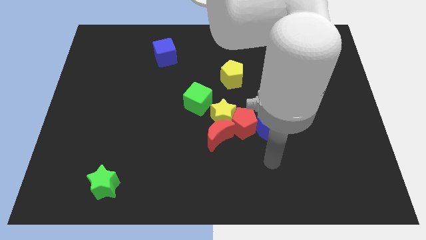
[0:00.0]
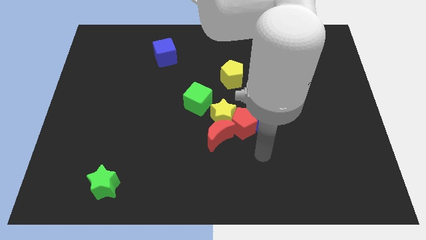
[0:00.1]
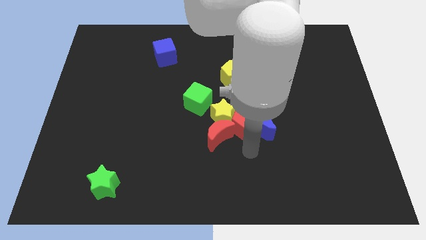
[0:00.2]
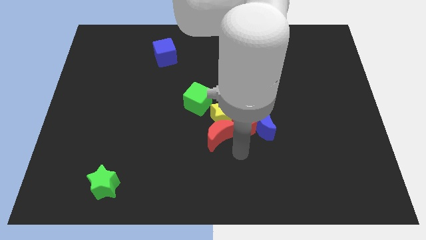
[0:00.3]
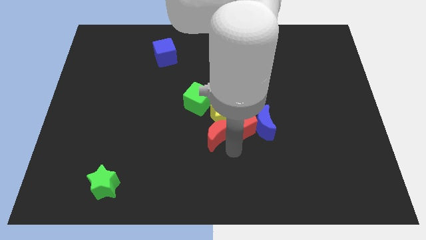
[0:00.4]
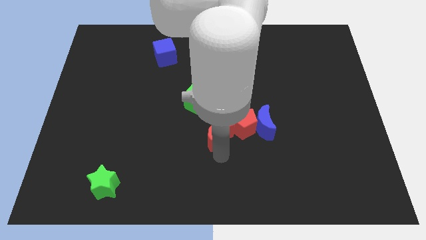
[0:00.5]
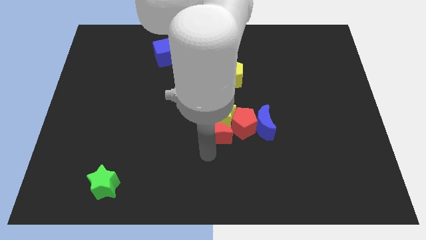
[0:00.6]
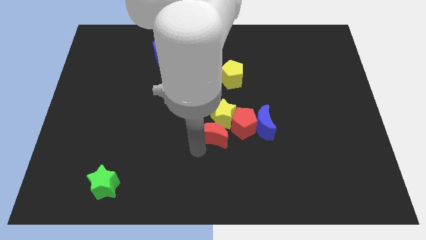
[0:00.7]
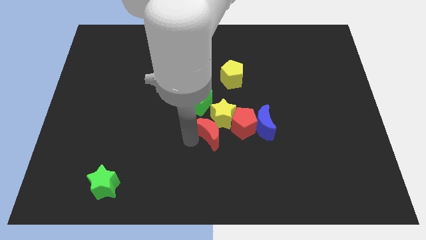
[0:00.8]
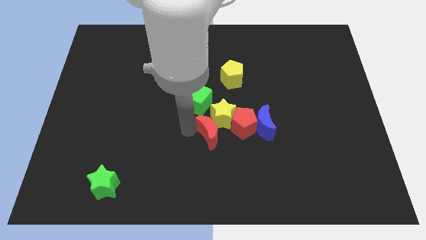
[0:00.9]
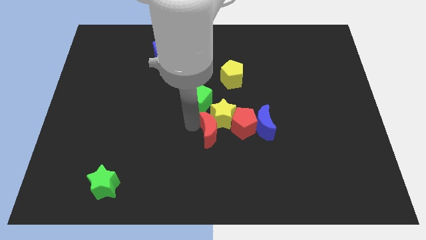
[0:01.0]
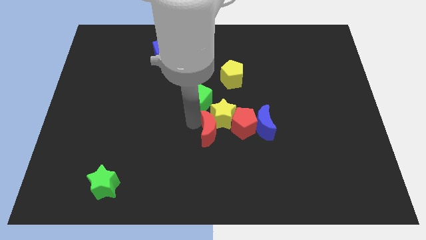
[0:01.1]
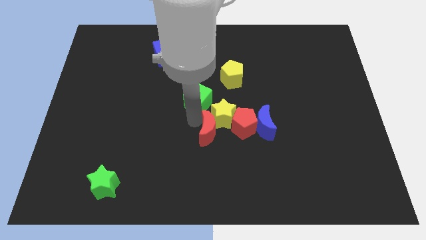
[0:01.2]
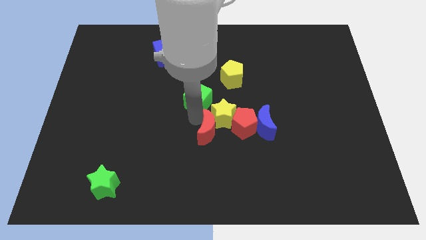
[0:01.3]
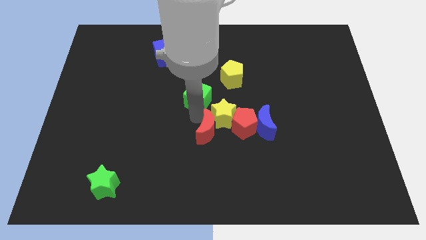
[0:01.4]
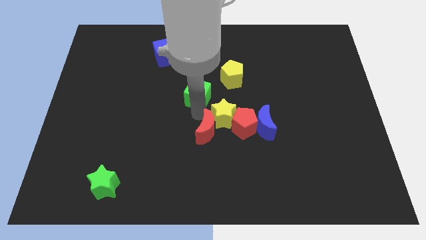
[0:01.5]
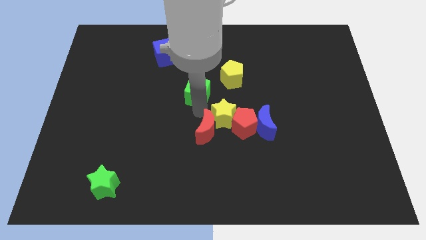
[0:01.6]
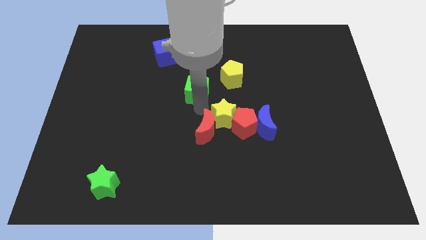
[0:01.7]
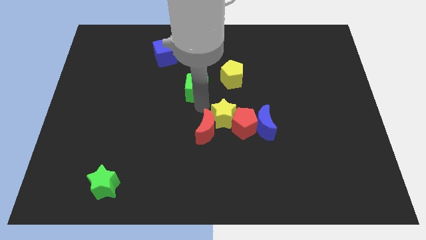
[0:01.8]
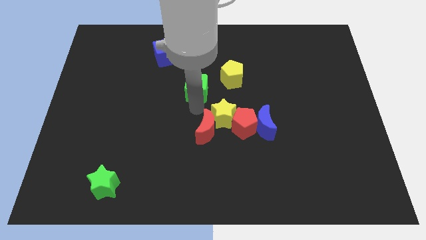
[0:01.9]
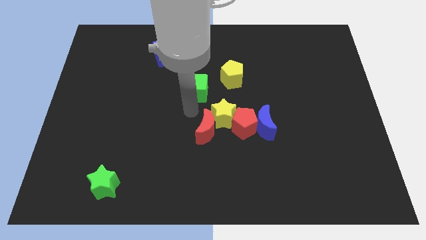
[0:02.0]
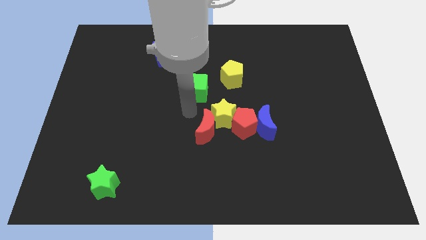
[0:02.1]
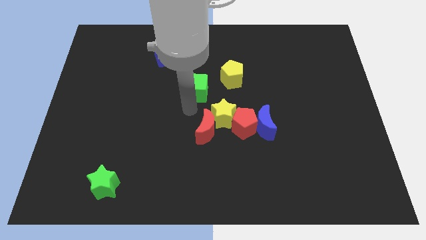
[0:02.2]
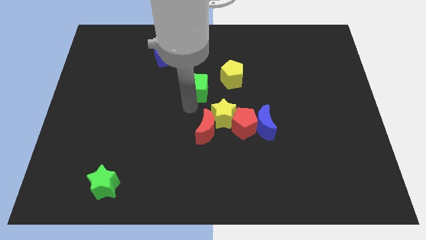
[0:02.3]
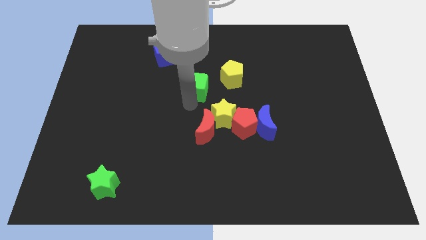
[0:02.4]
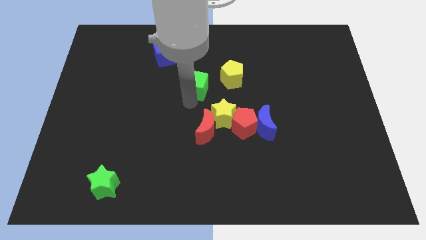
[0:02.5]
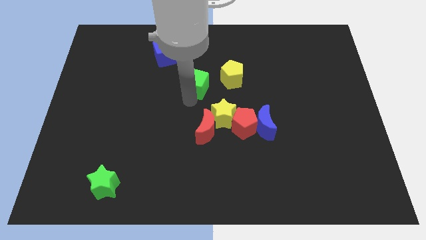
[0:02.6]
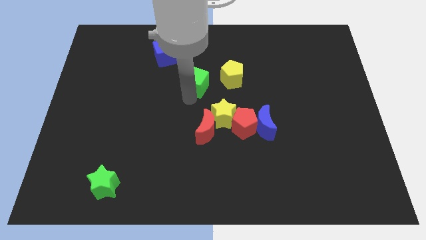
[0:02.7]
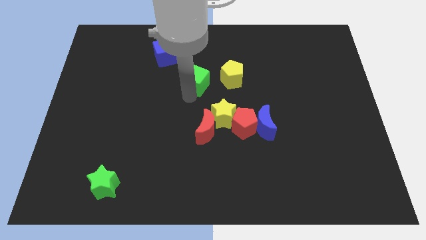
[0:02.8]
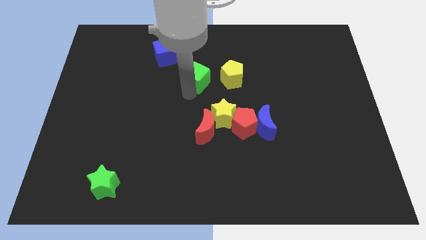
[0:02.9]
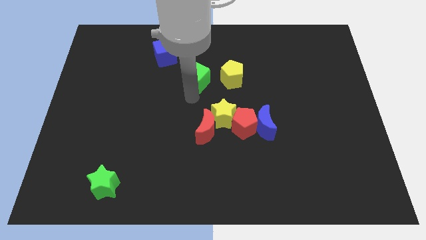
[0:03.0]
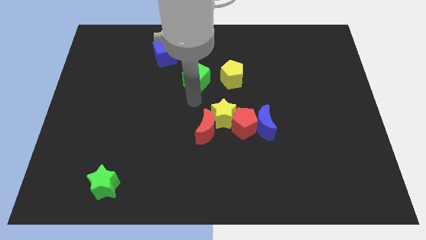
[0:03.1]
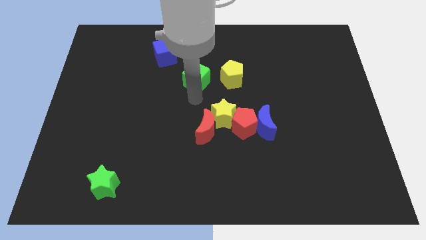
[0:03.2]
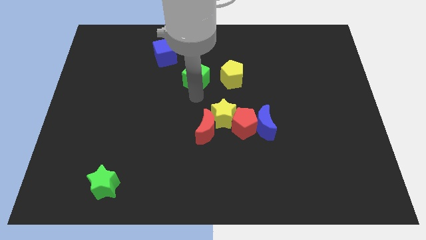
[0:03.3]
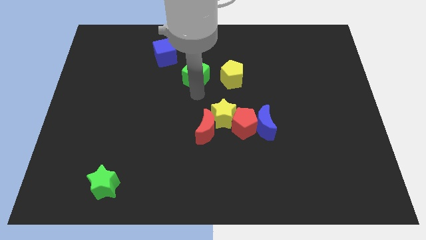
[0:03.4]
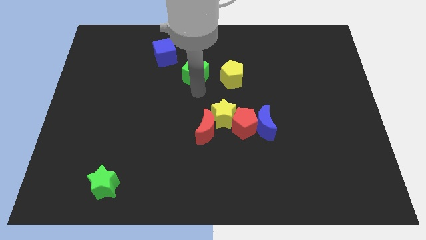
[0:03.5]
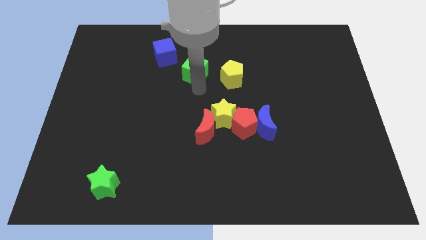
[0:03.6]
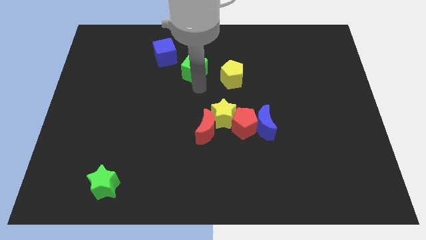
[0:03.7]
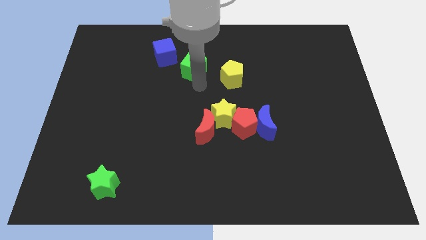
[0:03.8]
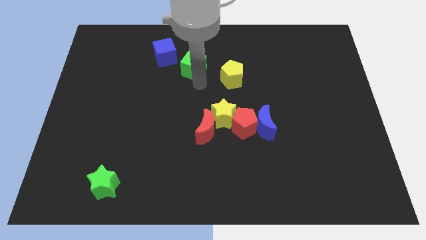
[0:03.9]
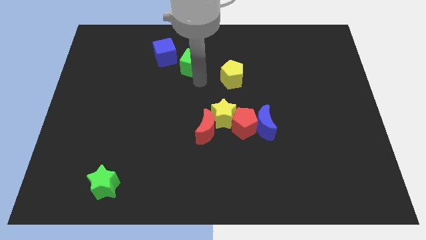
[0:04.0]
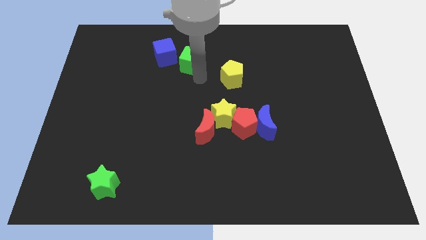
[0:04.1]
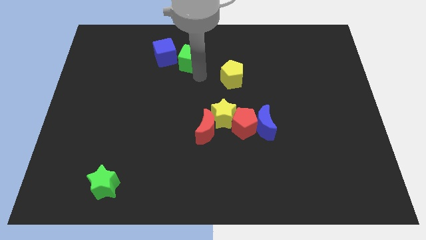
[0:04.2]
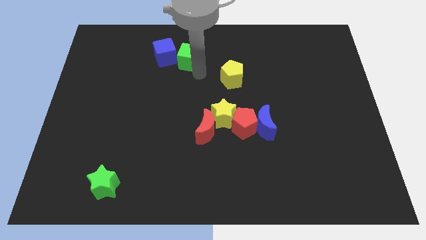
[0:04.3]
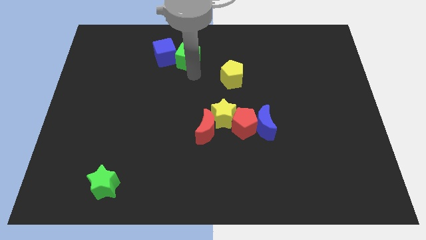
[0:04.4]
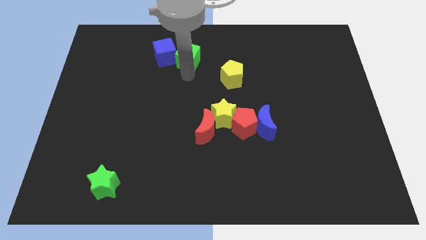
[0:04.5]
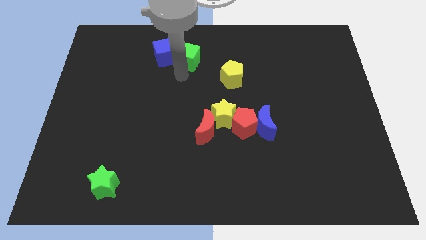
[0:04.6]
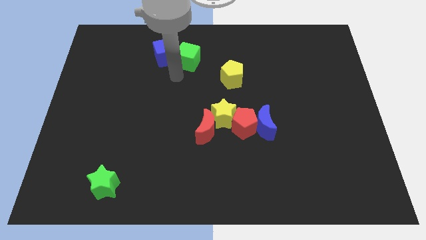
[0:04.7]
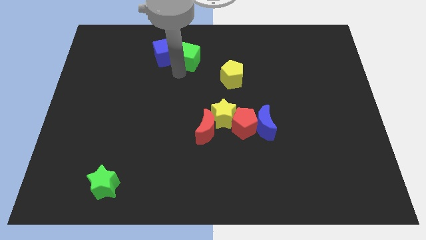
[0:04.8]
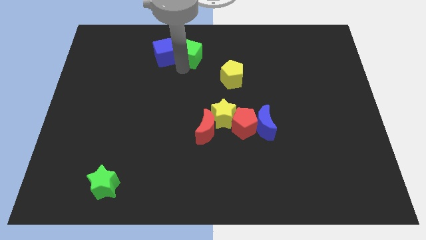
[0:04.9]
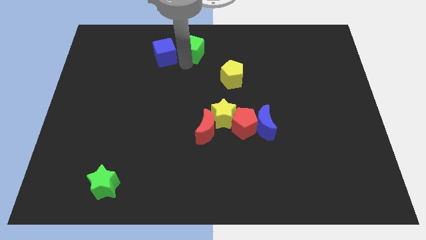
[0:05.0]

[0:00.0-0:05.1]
slide the green cube to the top

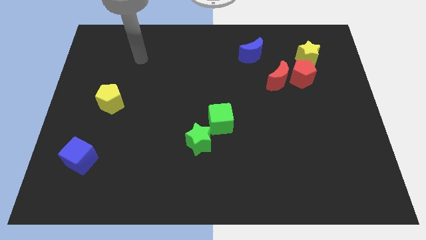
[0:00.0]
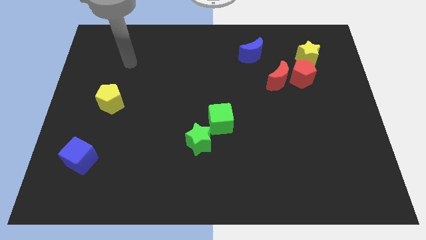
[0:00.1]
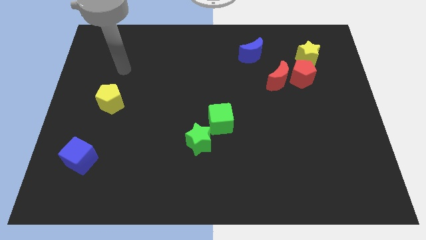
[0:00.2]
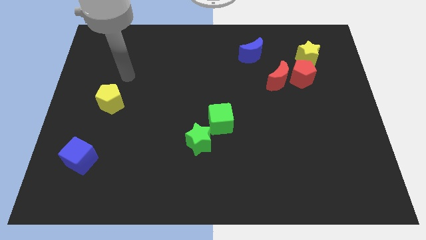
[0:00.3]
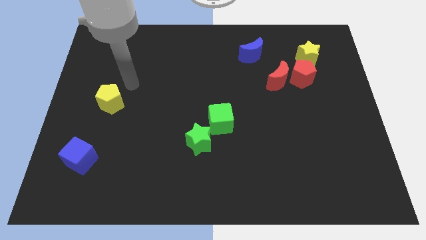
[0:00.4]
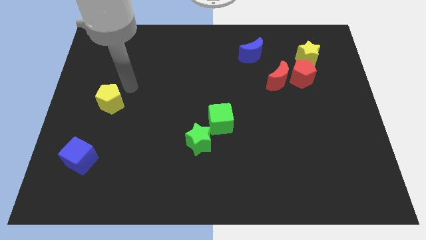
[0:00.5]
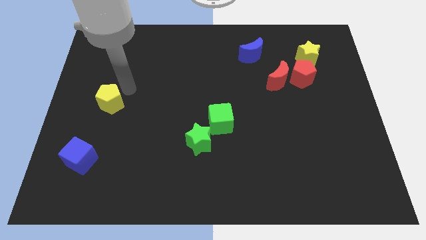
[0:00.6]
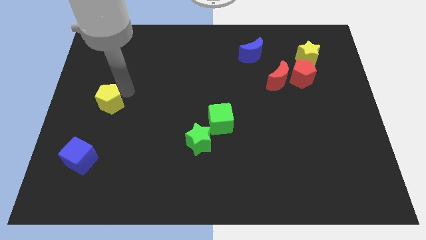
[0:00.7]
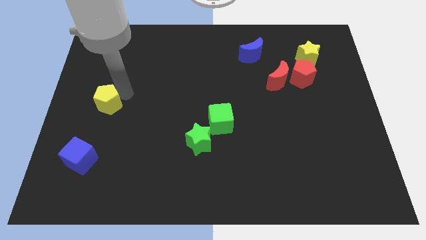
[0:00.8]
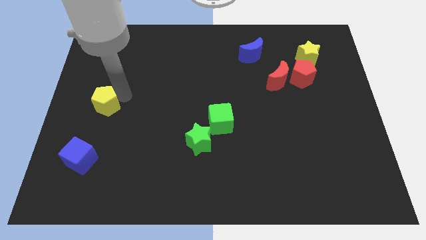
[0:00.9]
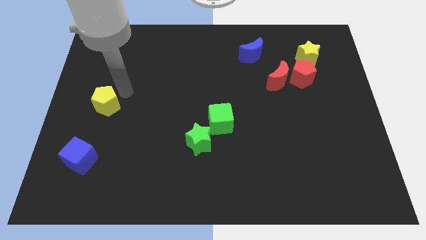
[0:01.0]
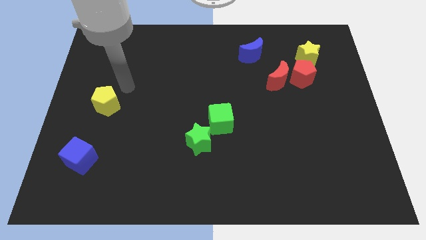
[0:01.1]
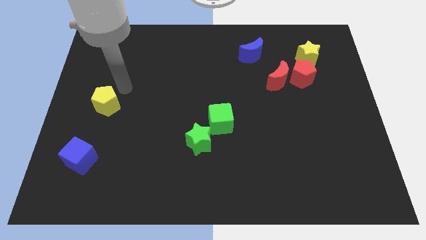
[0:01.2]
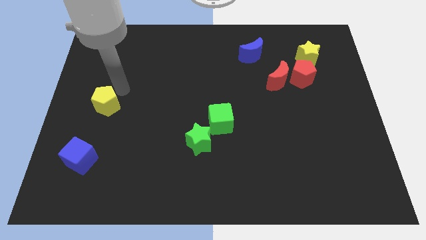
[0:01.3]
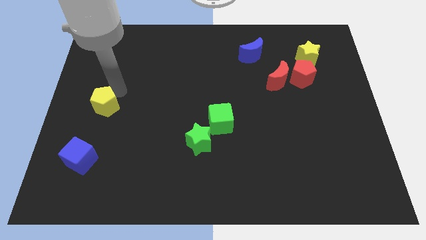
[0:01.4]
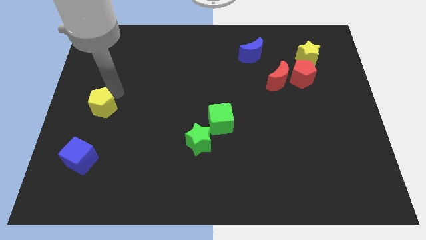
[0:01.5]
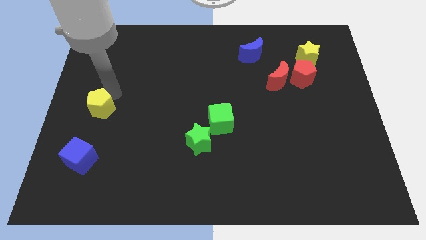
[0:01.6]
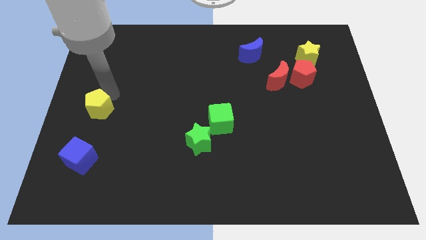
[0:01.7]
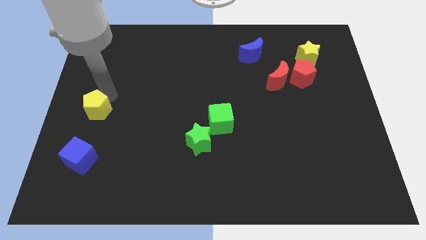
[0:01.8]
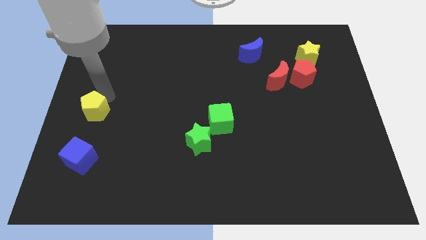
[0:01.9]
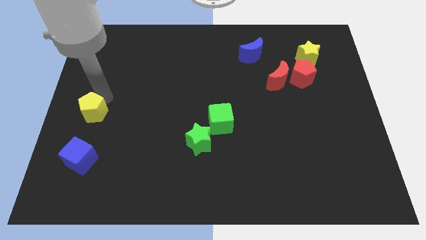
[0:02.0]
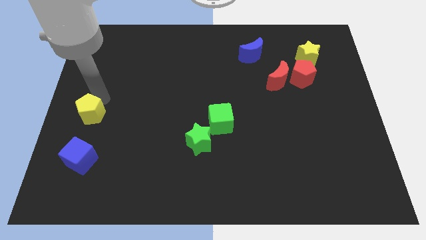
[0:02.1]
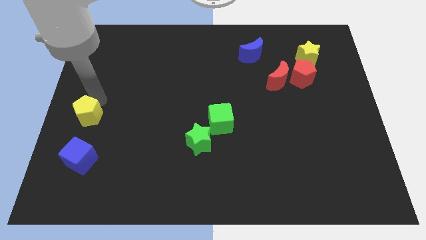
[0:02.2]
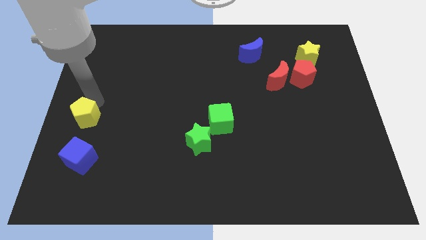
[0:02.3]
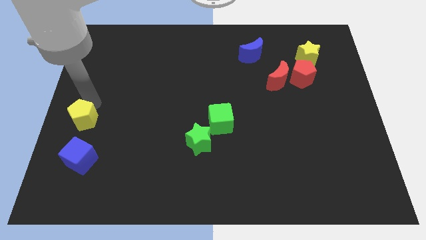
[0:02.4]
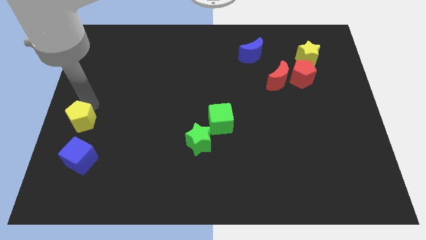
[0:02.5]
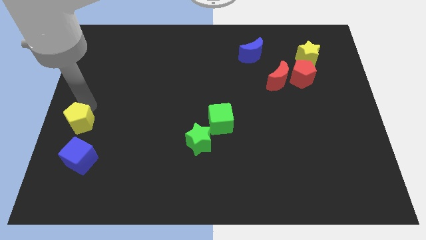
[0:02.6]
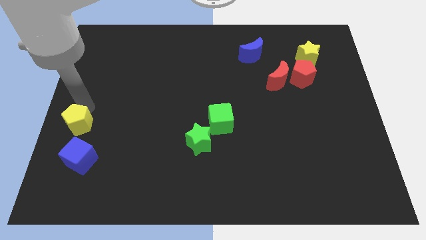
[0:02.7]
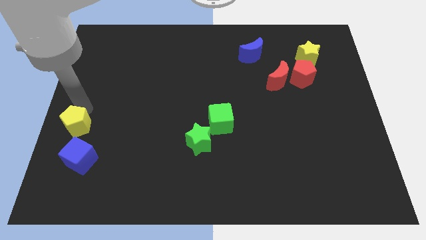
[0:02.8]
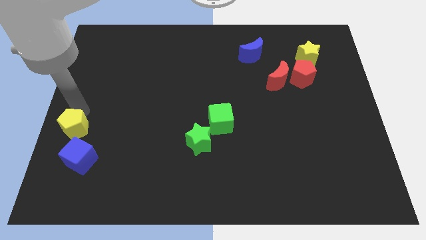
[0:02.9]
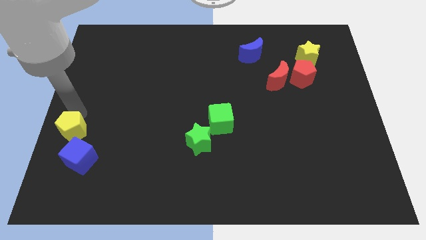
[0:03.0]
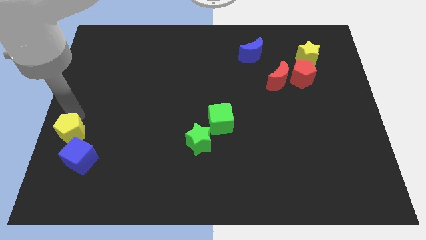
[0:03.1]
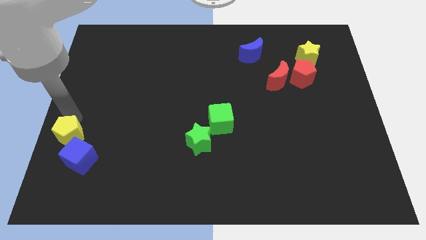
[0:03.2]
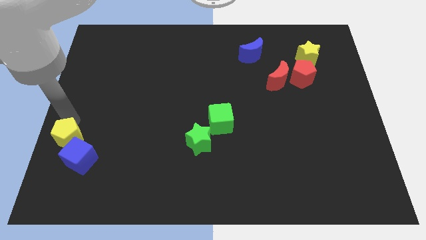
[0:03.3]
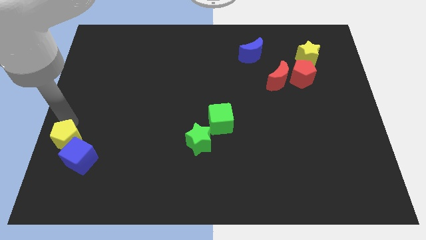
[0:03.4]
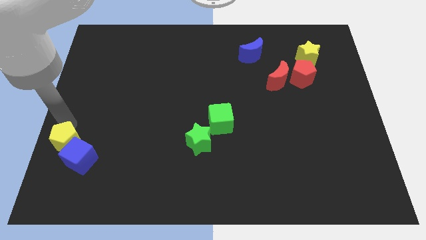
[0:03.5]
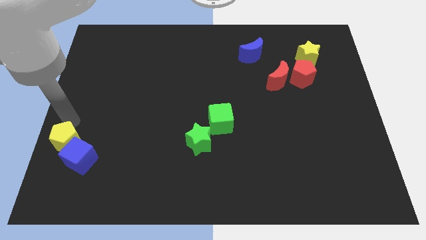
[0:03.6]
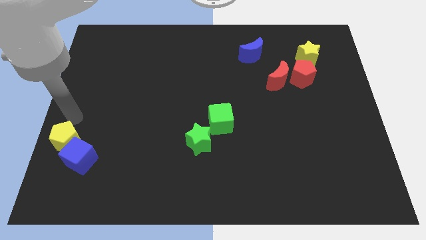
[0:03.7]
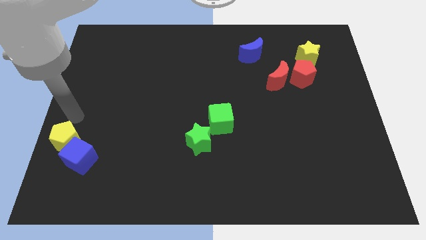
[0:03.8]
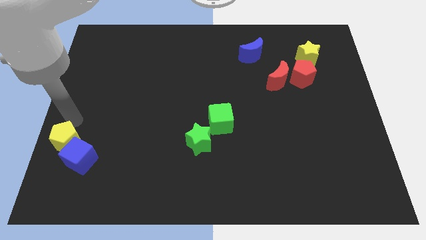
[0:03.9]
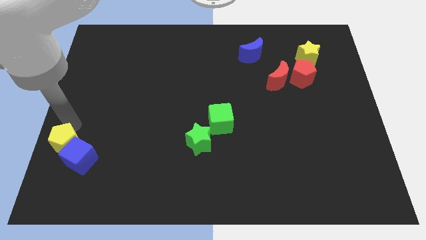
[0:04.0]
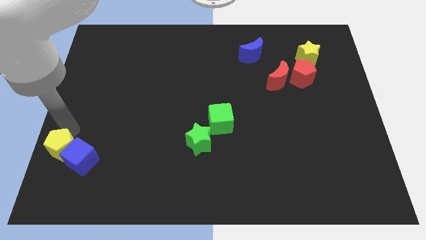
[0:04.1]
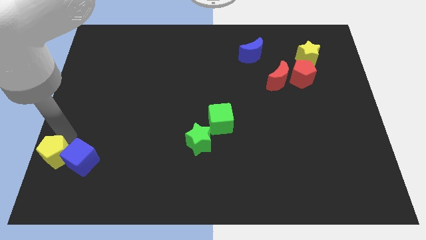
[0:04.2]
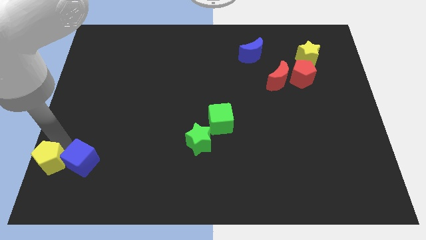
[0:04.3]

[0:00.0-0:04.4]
put the yellow pentagon to the bottom left
